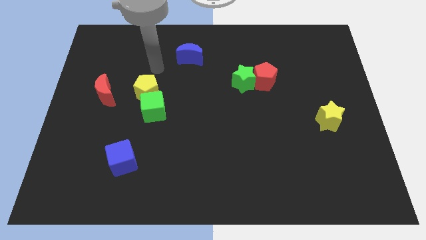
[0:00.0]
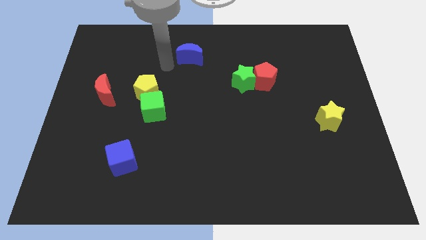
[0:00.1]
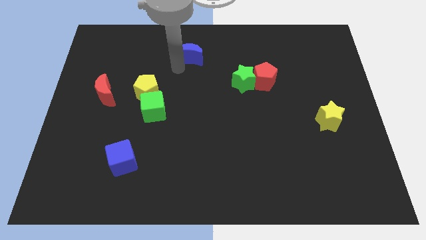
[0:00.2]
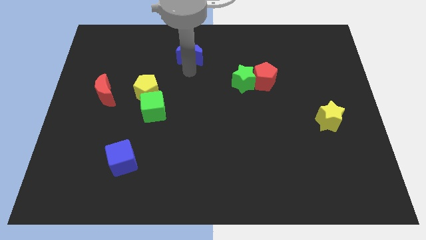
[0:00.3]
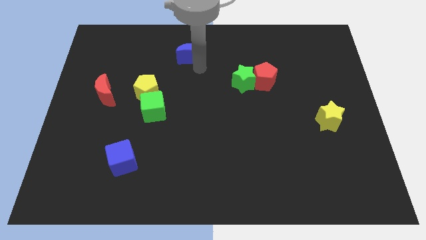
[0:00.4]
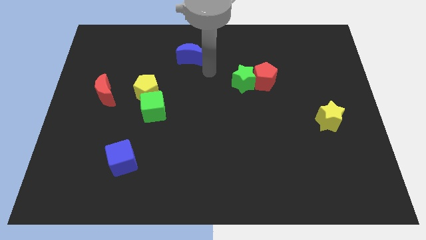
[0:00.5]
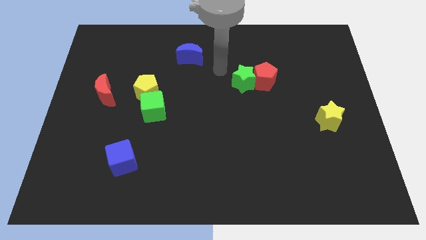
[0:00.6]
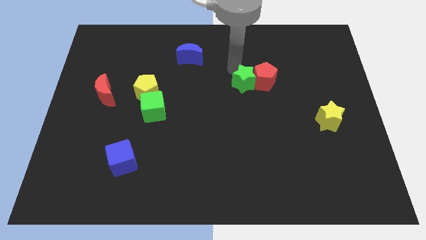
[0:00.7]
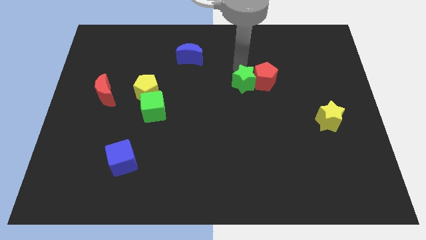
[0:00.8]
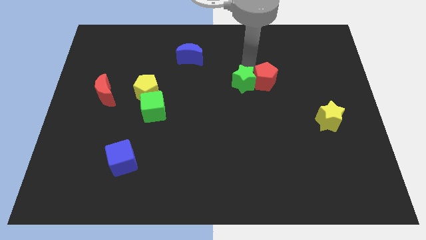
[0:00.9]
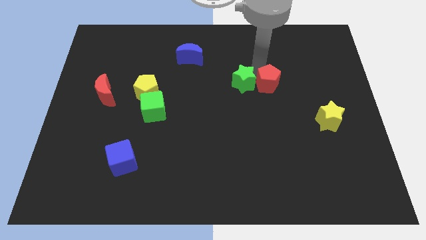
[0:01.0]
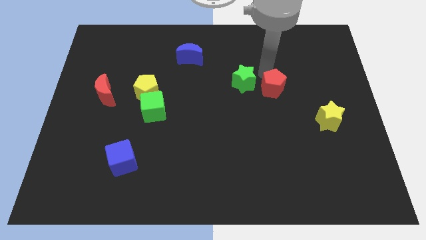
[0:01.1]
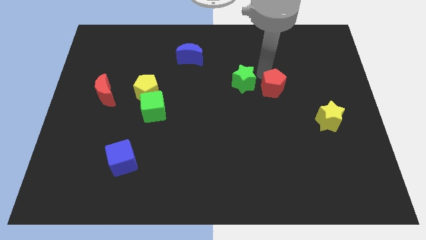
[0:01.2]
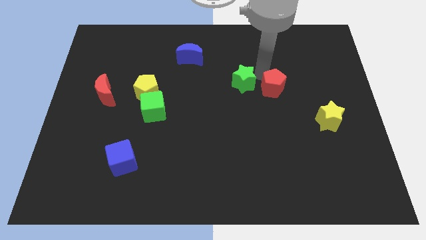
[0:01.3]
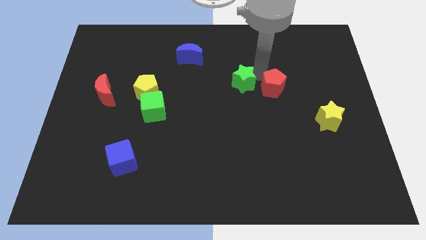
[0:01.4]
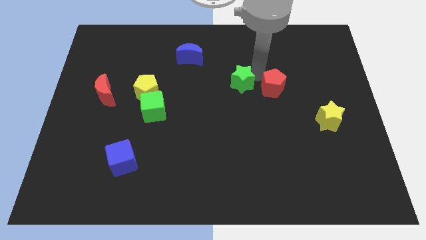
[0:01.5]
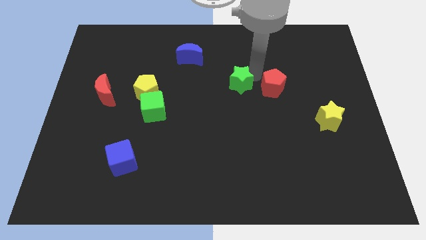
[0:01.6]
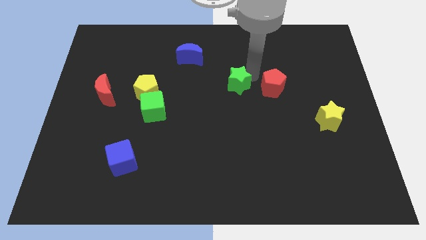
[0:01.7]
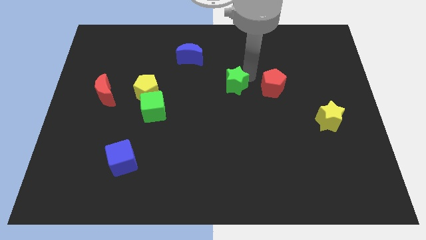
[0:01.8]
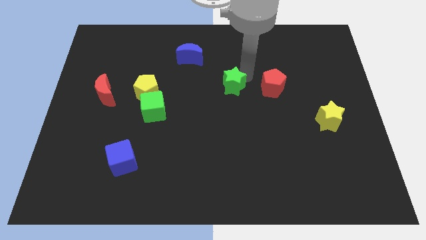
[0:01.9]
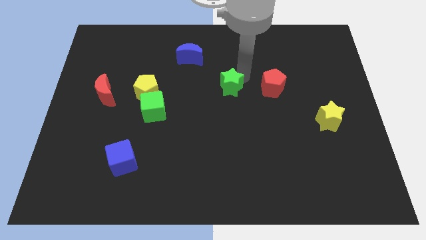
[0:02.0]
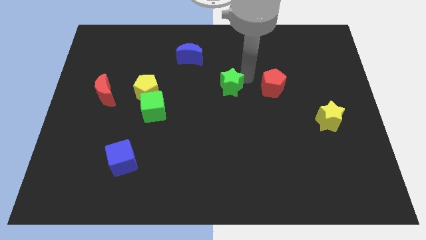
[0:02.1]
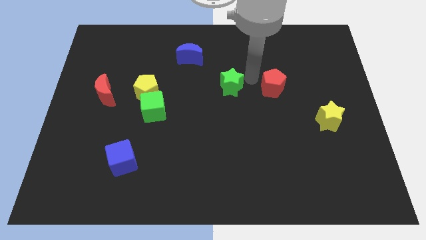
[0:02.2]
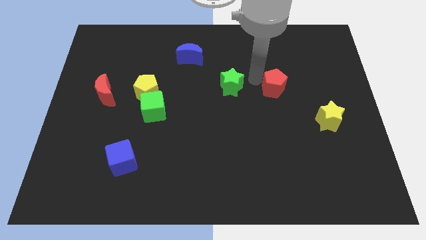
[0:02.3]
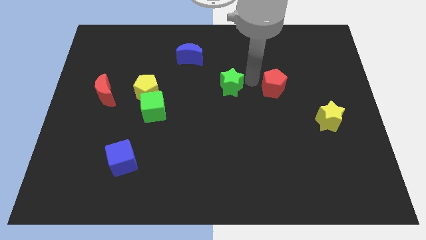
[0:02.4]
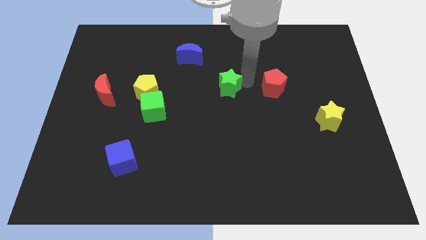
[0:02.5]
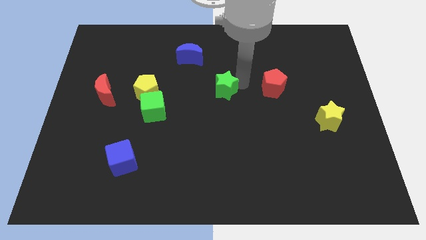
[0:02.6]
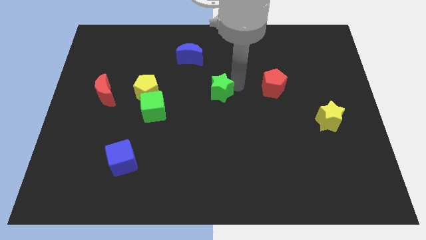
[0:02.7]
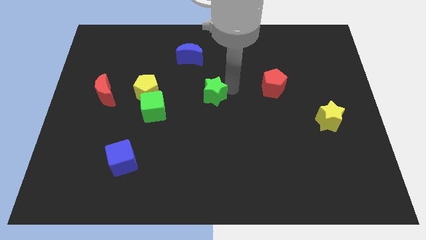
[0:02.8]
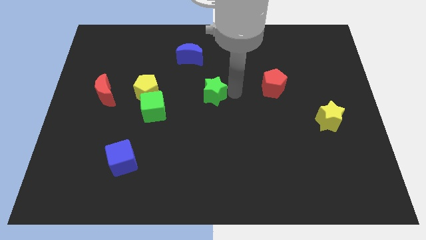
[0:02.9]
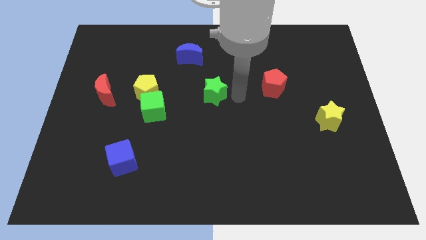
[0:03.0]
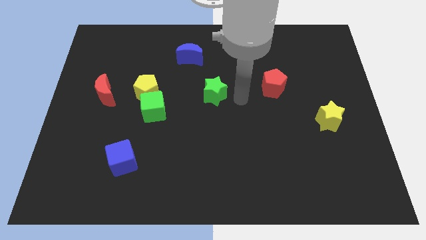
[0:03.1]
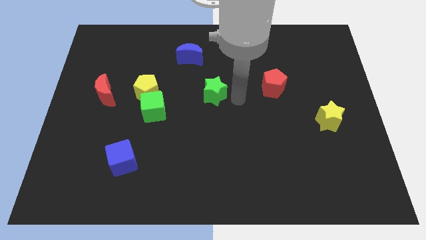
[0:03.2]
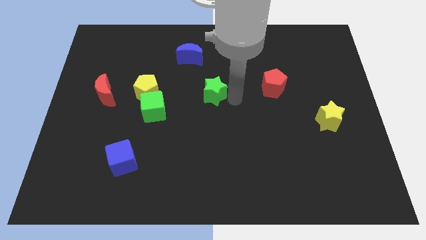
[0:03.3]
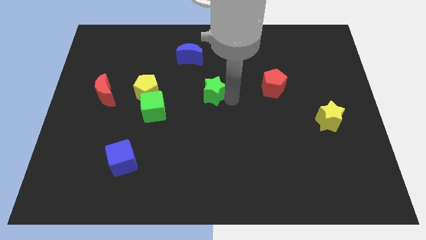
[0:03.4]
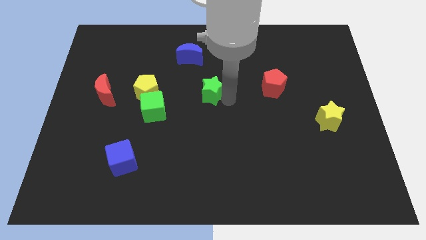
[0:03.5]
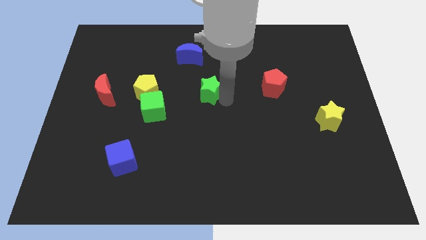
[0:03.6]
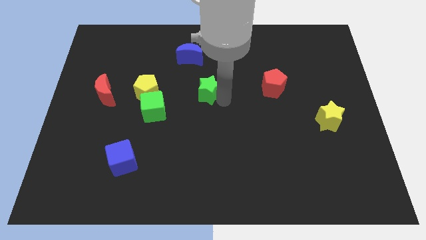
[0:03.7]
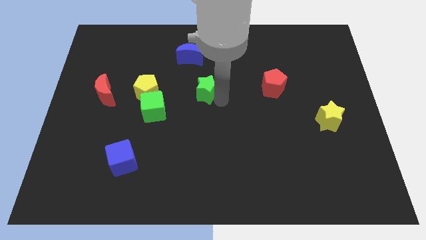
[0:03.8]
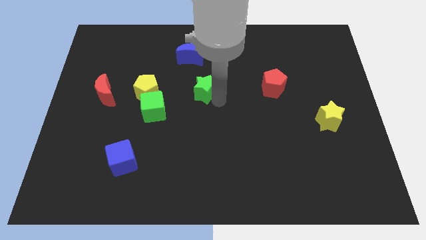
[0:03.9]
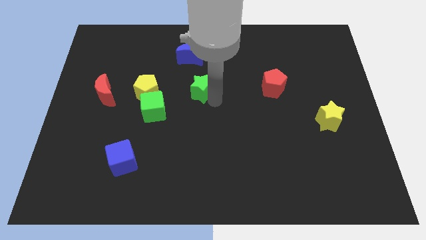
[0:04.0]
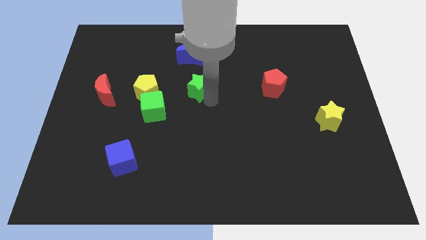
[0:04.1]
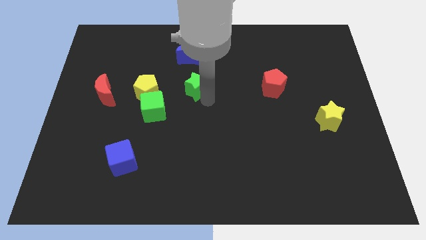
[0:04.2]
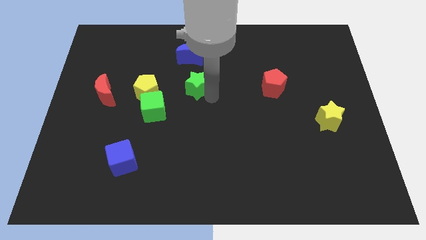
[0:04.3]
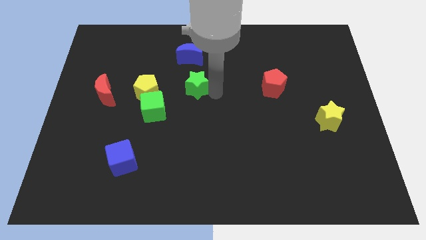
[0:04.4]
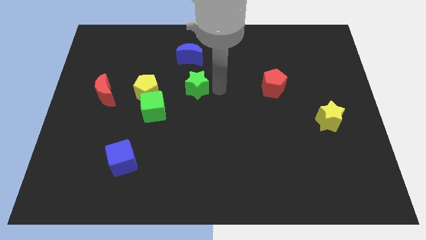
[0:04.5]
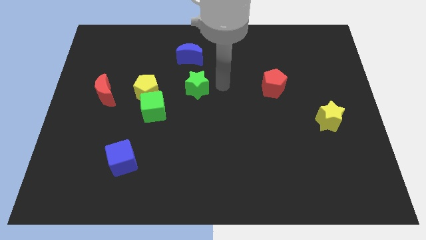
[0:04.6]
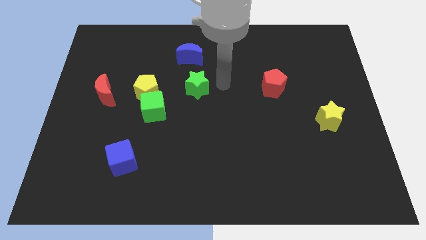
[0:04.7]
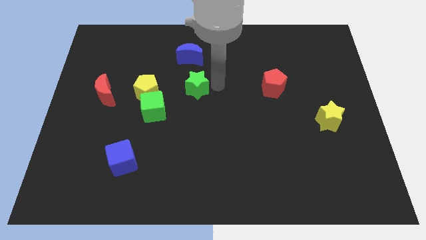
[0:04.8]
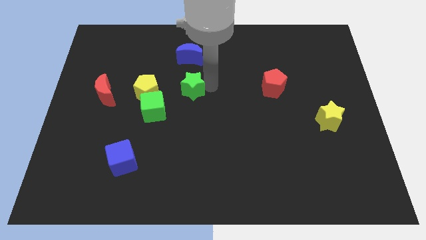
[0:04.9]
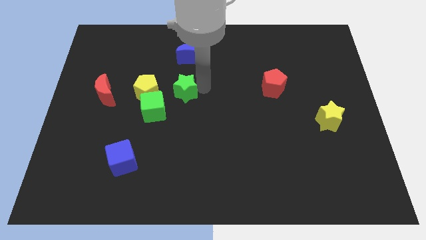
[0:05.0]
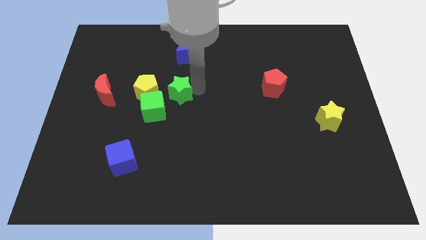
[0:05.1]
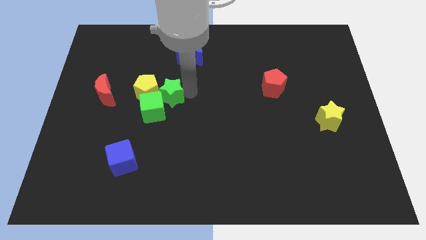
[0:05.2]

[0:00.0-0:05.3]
put the green star to the yellow pentagon

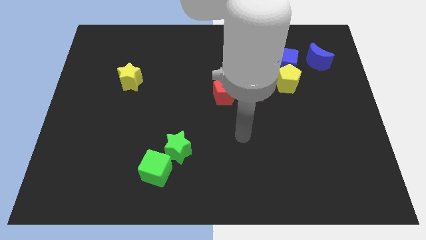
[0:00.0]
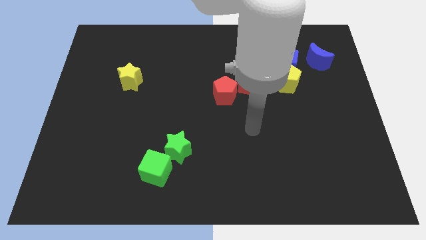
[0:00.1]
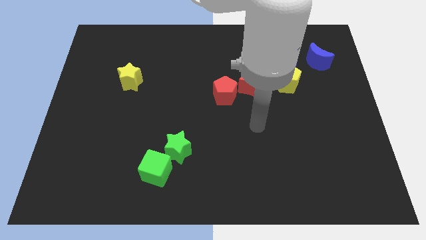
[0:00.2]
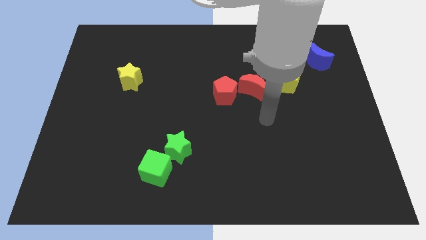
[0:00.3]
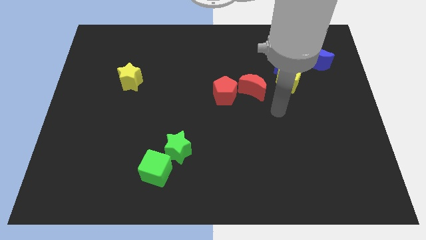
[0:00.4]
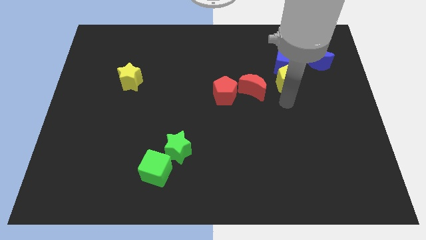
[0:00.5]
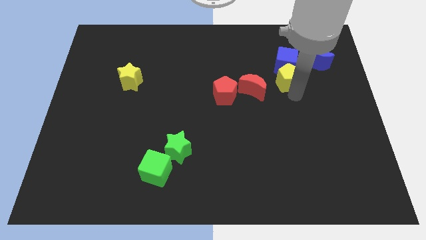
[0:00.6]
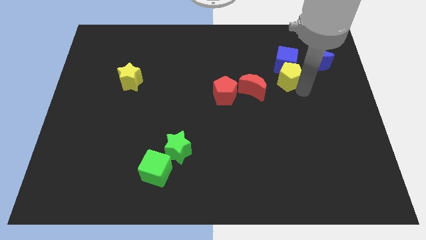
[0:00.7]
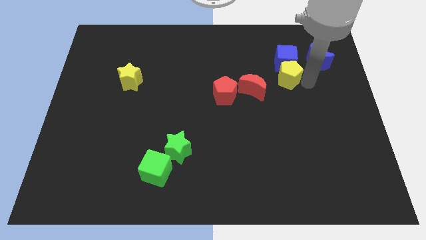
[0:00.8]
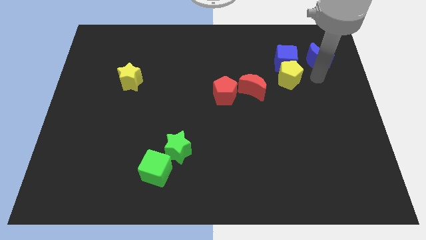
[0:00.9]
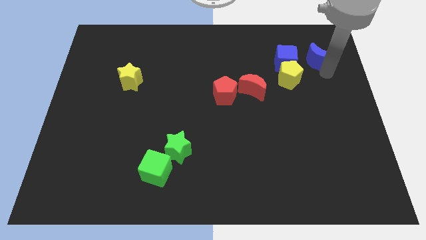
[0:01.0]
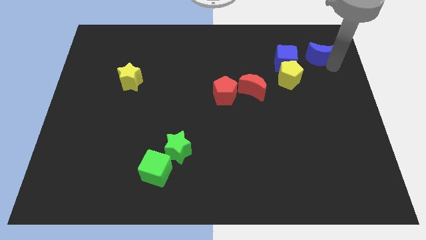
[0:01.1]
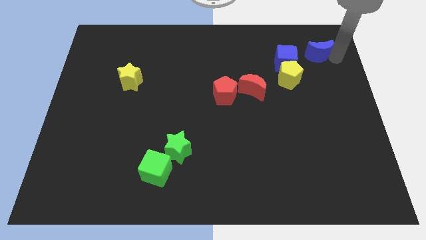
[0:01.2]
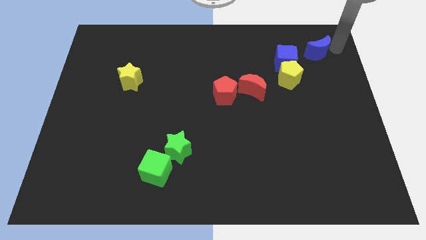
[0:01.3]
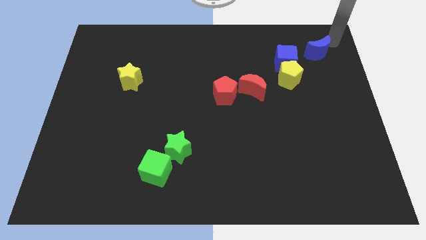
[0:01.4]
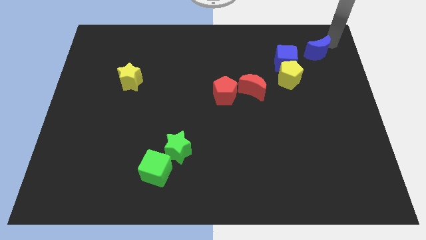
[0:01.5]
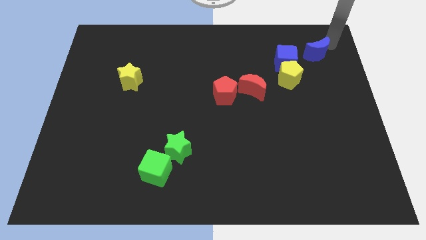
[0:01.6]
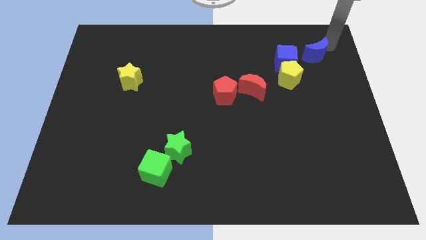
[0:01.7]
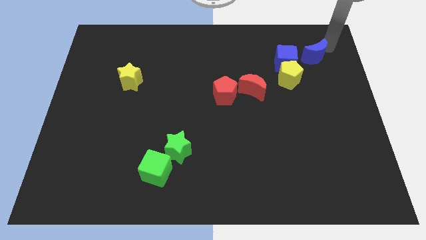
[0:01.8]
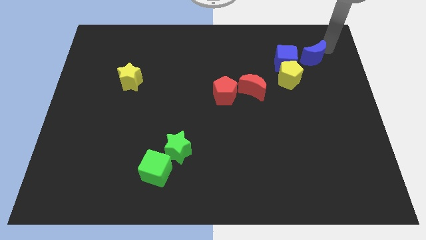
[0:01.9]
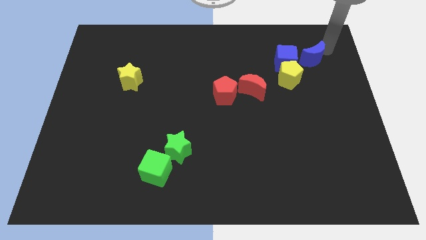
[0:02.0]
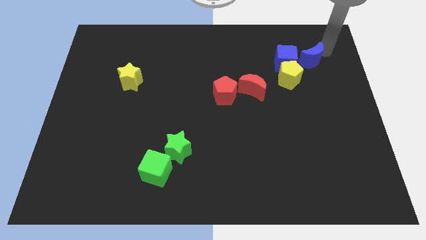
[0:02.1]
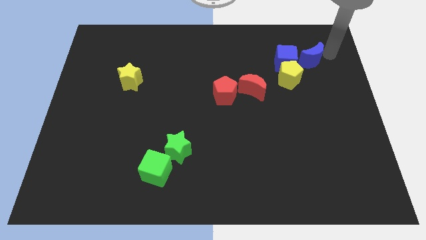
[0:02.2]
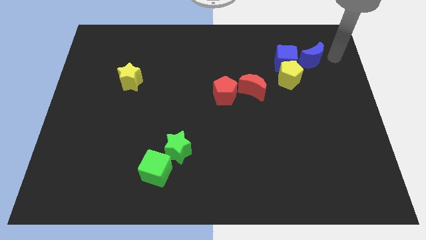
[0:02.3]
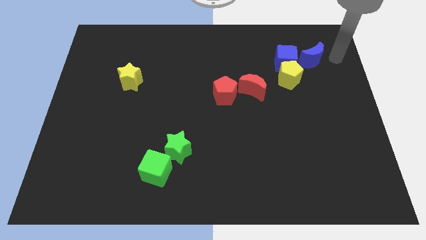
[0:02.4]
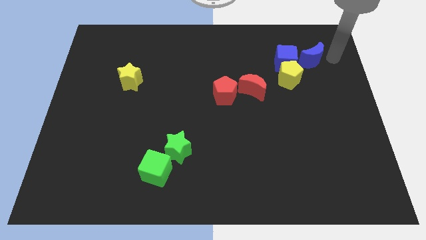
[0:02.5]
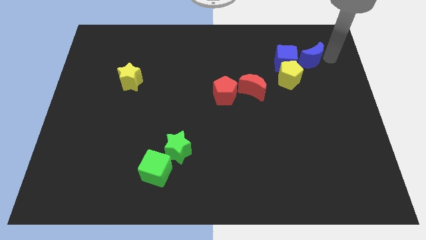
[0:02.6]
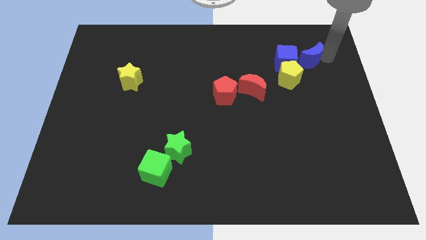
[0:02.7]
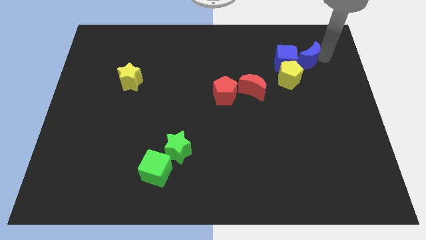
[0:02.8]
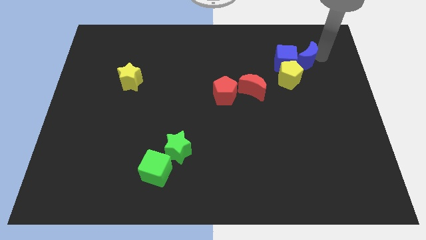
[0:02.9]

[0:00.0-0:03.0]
slide the blue moon towards the blue cube
